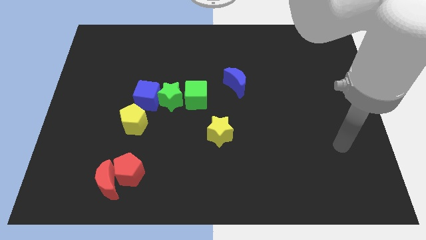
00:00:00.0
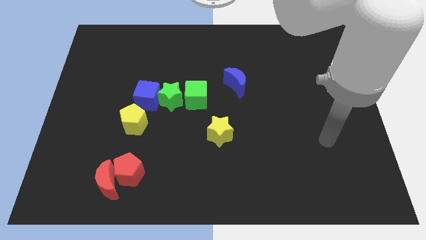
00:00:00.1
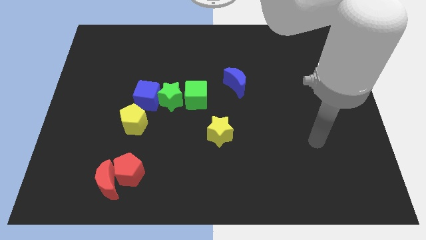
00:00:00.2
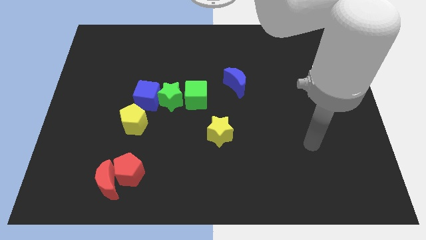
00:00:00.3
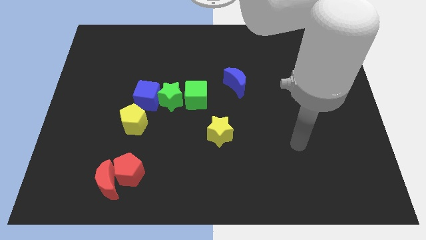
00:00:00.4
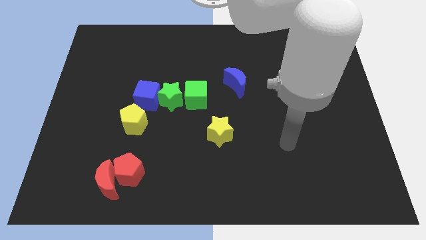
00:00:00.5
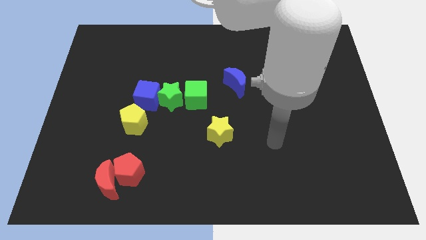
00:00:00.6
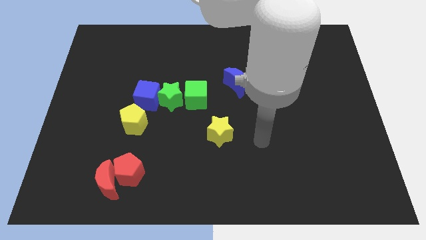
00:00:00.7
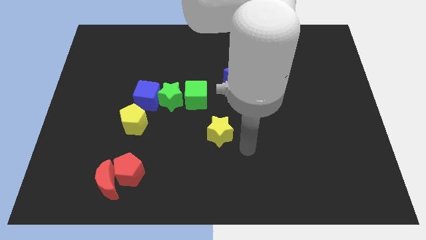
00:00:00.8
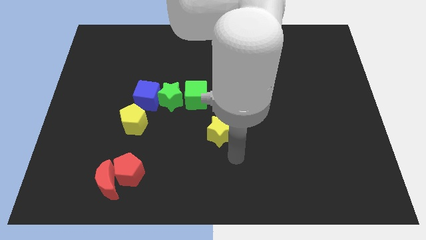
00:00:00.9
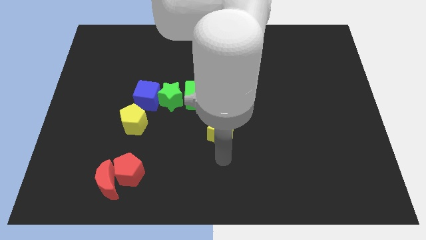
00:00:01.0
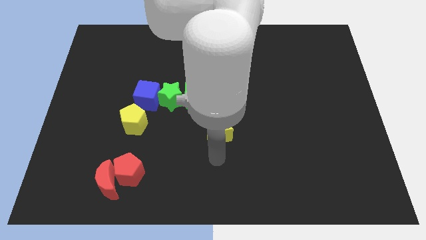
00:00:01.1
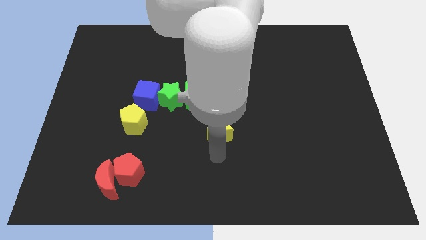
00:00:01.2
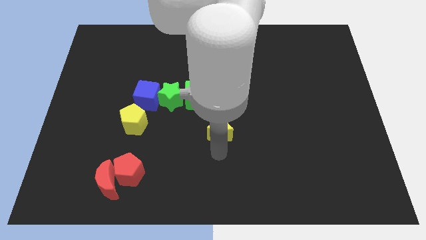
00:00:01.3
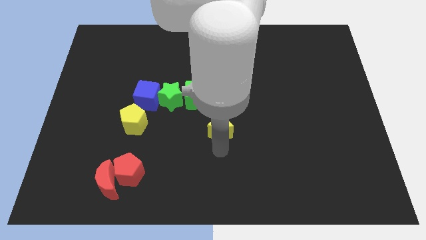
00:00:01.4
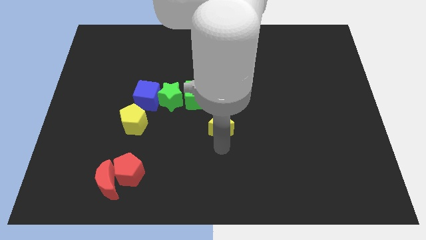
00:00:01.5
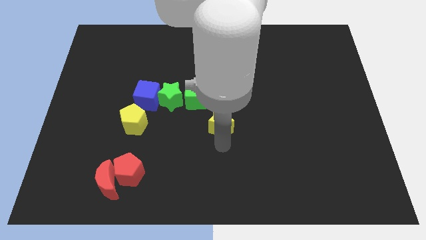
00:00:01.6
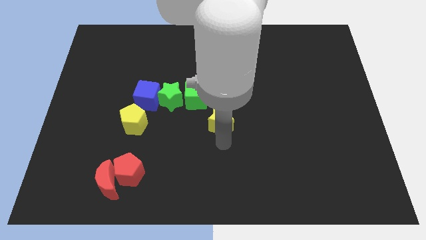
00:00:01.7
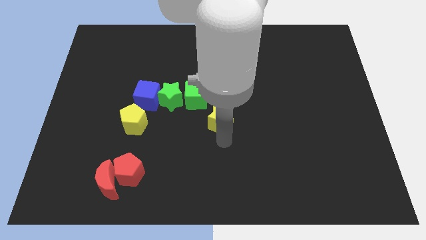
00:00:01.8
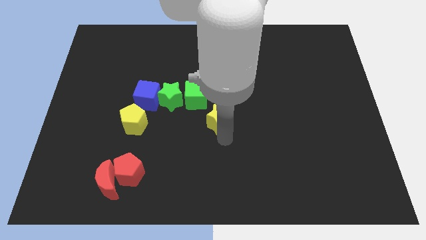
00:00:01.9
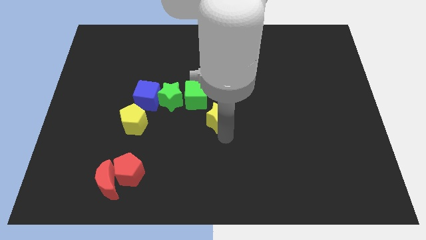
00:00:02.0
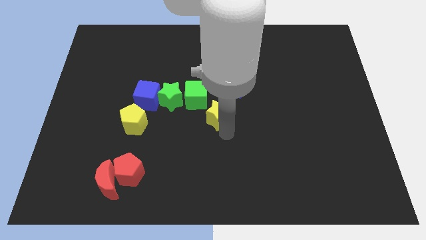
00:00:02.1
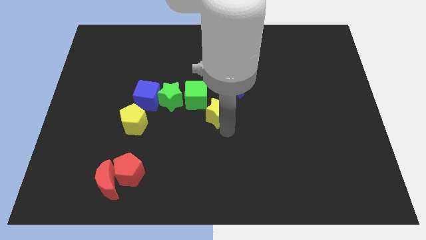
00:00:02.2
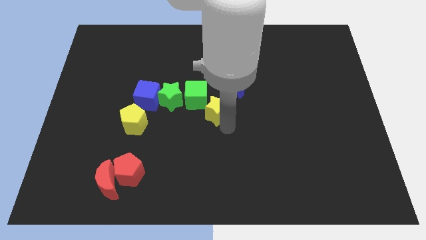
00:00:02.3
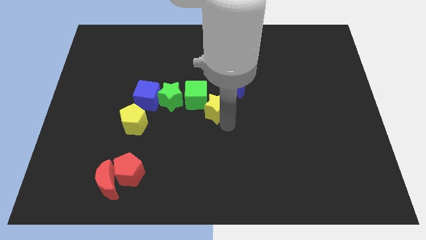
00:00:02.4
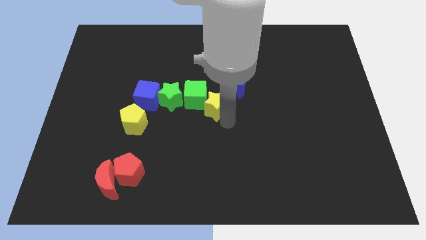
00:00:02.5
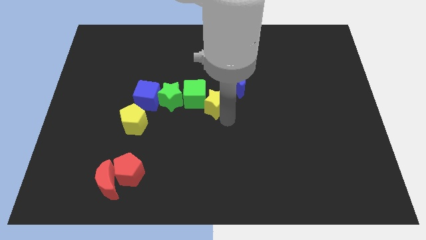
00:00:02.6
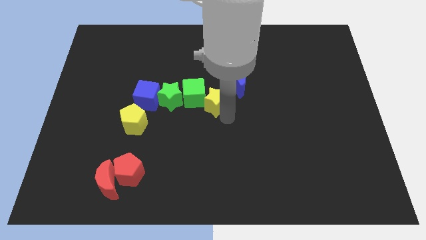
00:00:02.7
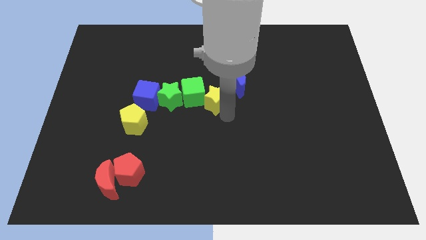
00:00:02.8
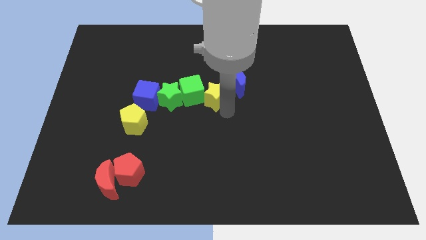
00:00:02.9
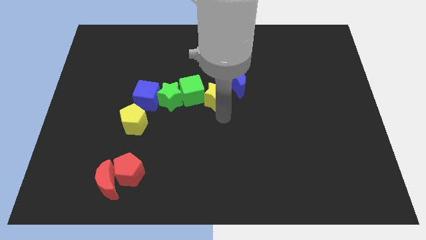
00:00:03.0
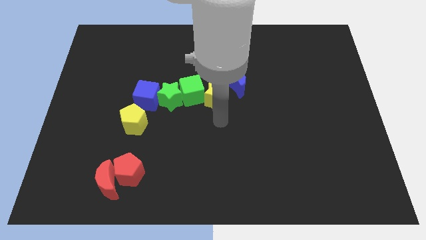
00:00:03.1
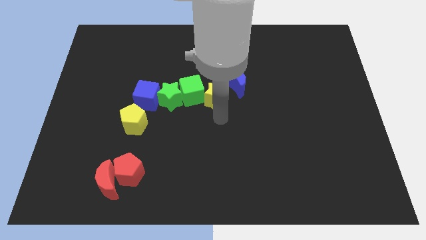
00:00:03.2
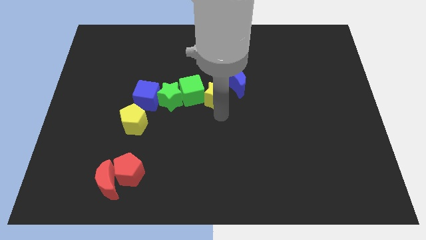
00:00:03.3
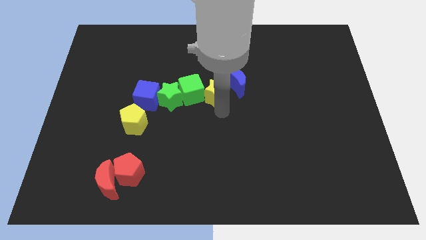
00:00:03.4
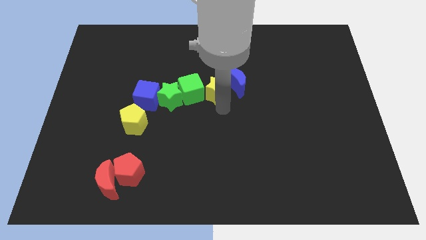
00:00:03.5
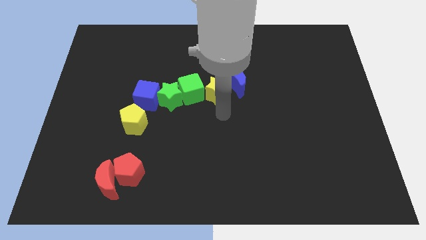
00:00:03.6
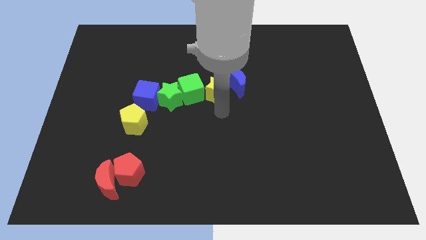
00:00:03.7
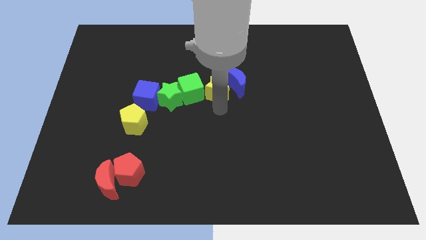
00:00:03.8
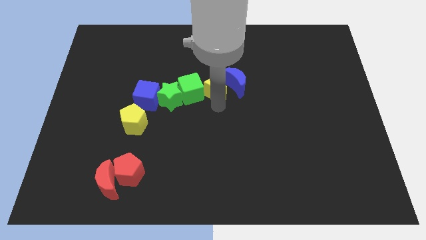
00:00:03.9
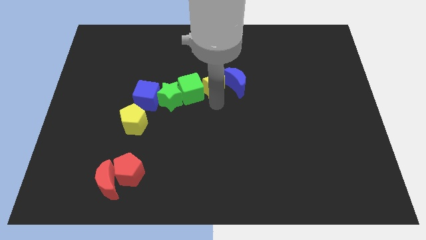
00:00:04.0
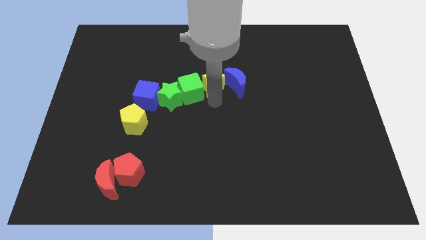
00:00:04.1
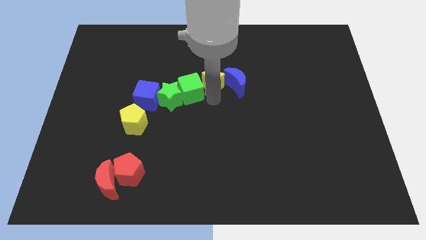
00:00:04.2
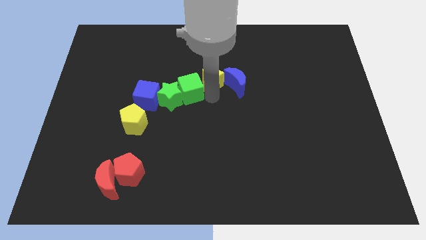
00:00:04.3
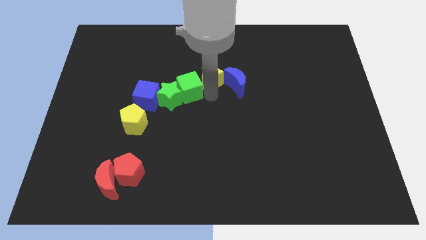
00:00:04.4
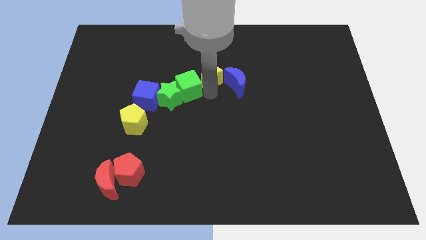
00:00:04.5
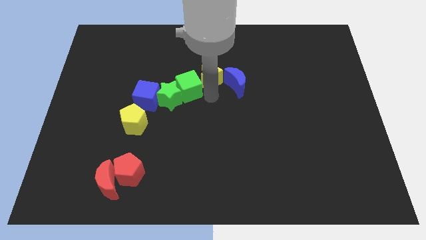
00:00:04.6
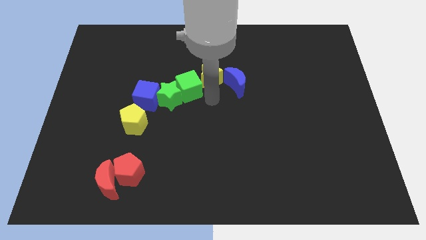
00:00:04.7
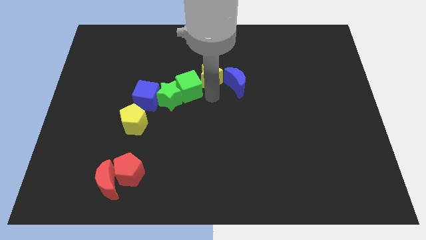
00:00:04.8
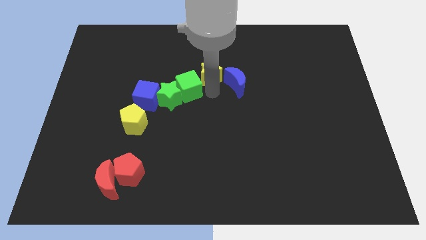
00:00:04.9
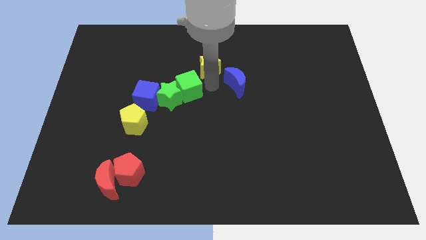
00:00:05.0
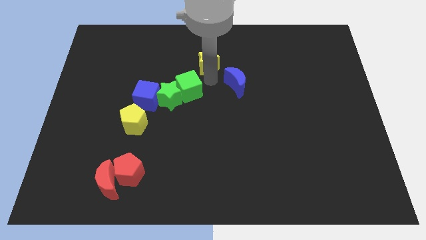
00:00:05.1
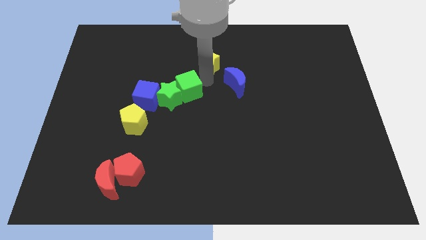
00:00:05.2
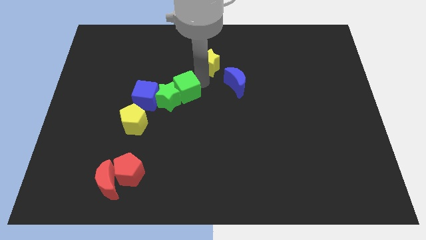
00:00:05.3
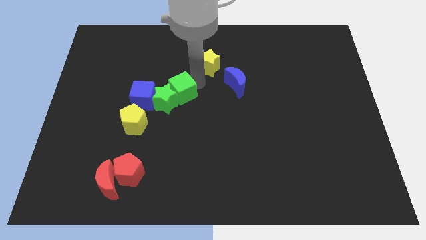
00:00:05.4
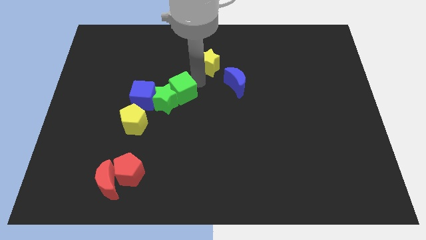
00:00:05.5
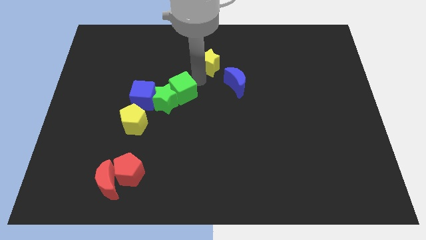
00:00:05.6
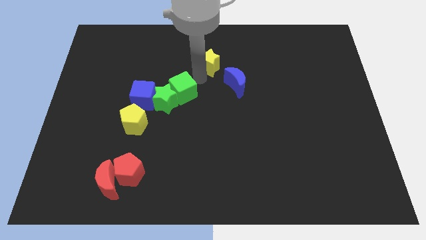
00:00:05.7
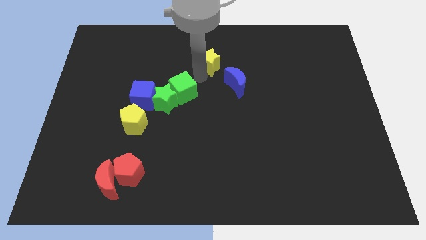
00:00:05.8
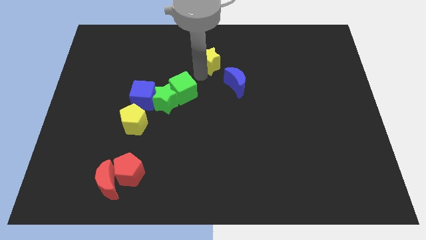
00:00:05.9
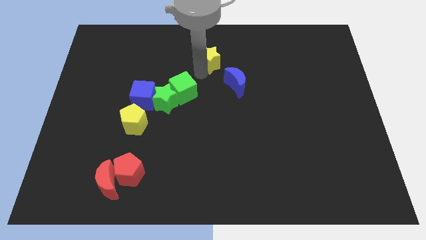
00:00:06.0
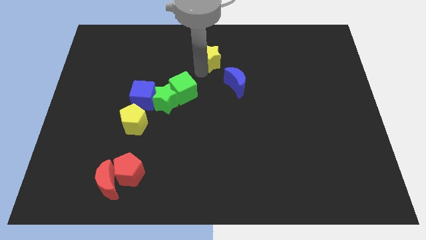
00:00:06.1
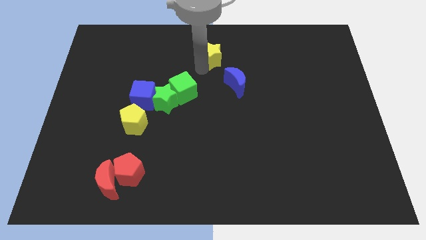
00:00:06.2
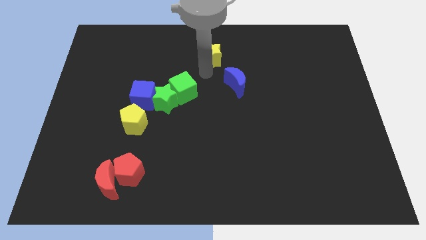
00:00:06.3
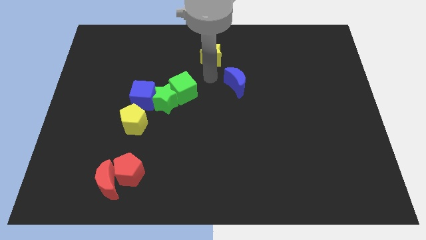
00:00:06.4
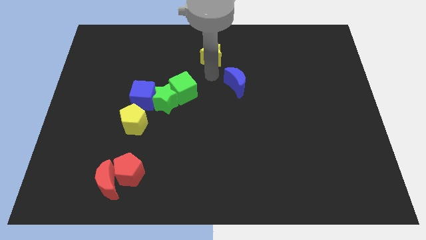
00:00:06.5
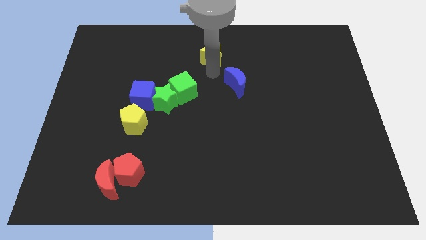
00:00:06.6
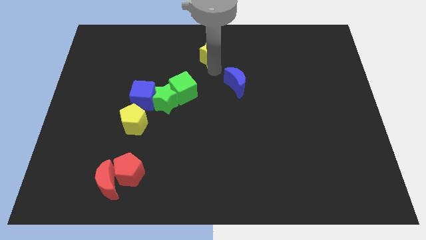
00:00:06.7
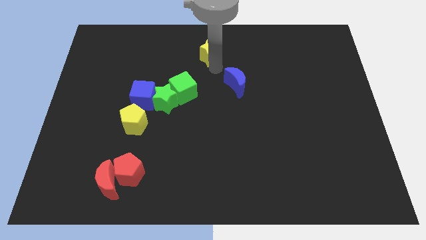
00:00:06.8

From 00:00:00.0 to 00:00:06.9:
move the yellow star to the towards your base
